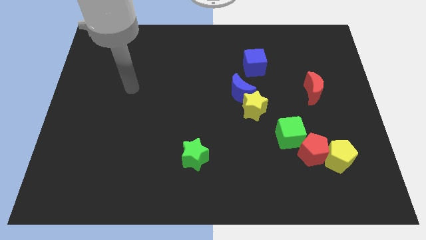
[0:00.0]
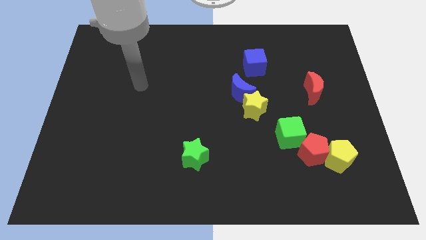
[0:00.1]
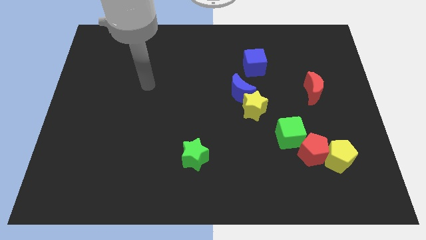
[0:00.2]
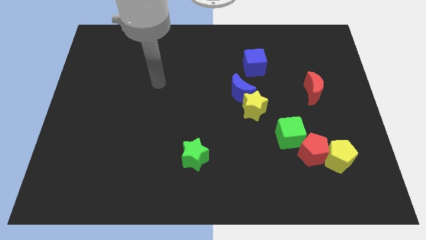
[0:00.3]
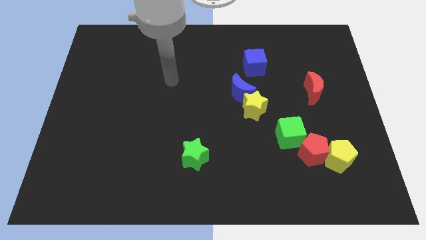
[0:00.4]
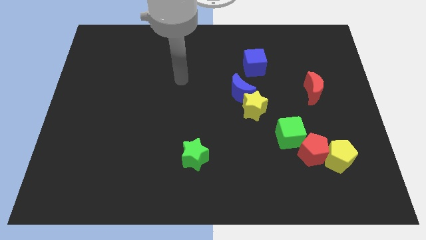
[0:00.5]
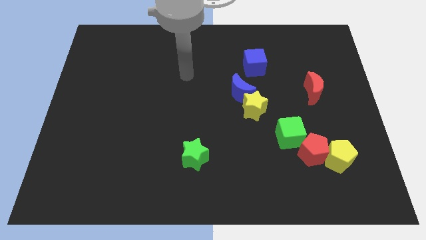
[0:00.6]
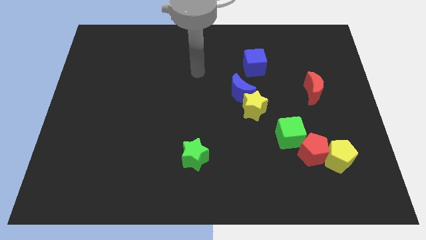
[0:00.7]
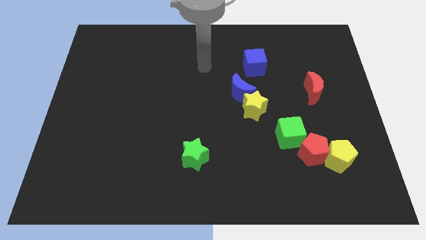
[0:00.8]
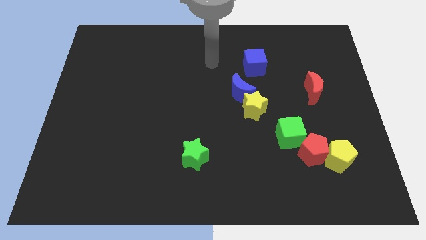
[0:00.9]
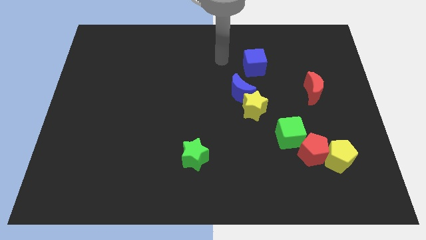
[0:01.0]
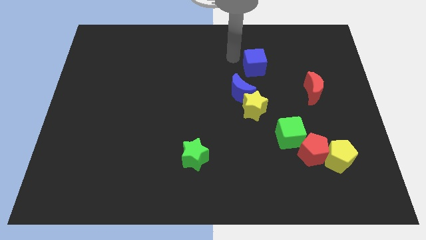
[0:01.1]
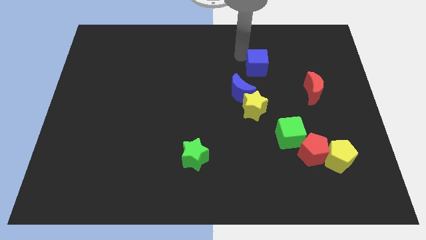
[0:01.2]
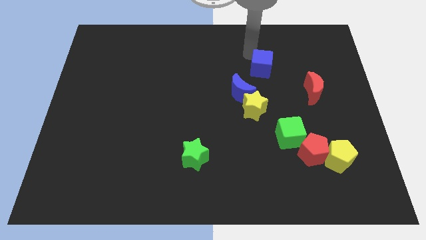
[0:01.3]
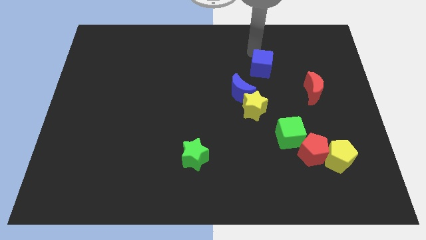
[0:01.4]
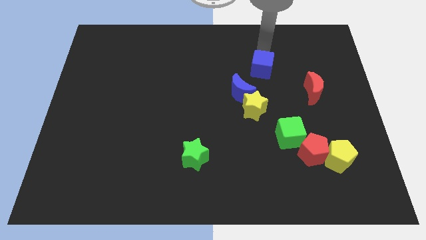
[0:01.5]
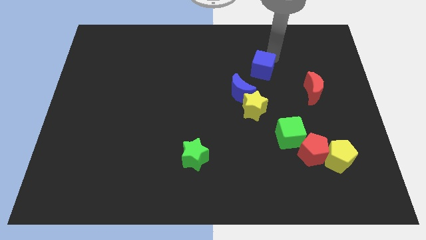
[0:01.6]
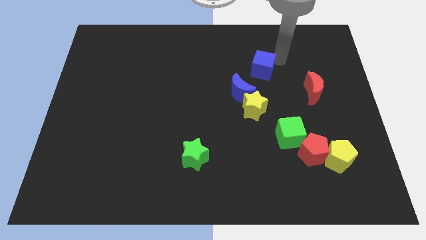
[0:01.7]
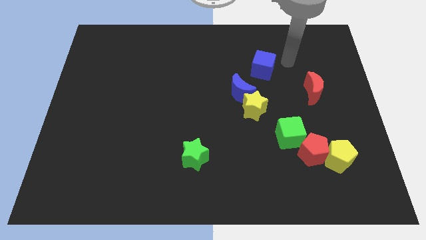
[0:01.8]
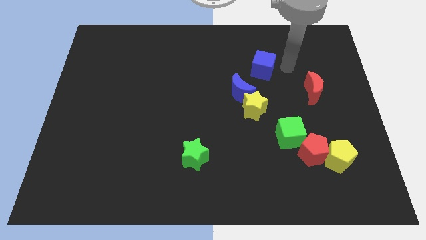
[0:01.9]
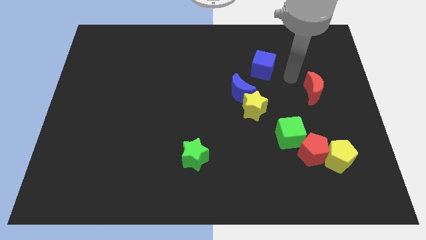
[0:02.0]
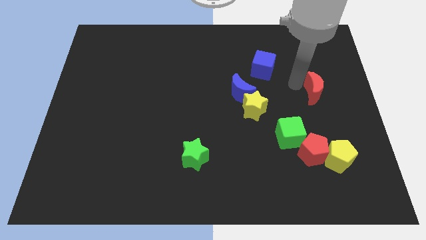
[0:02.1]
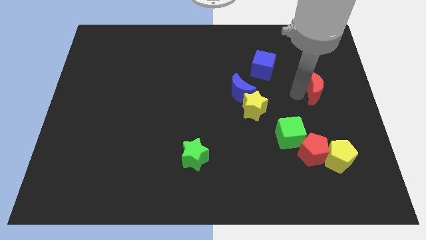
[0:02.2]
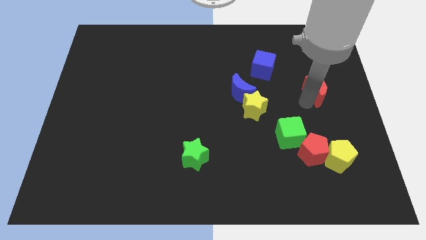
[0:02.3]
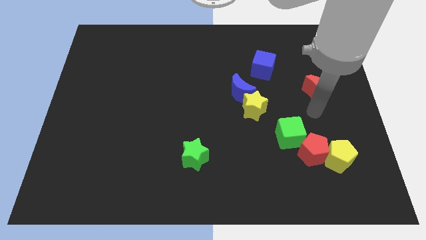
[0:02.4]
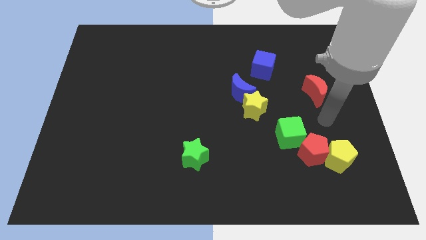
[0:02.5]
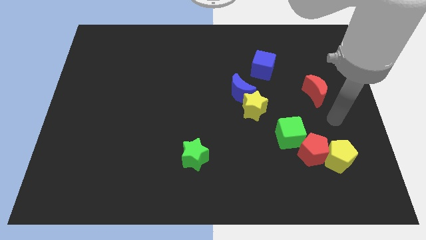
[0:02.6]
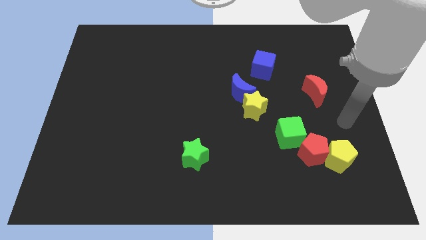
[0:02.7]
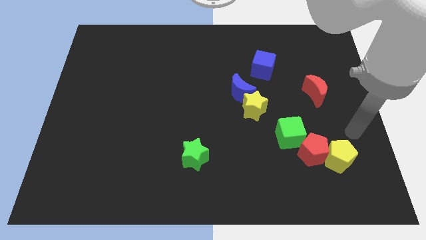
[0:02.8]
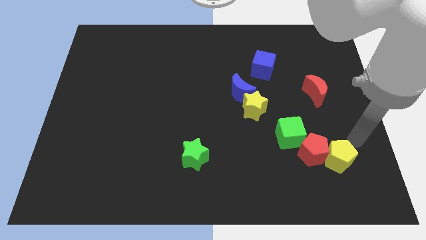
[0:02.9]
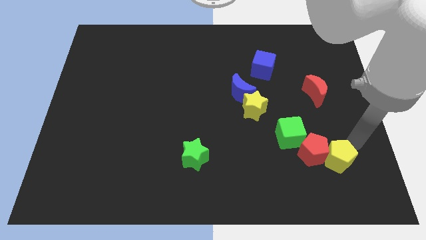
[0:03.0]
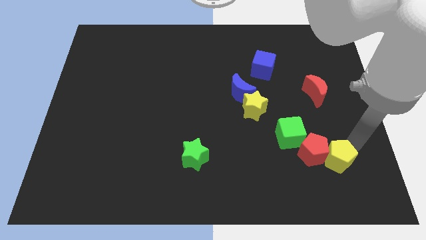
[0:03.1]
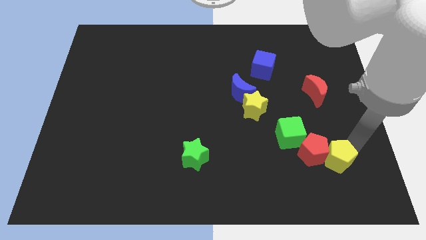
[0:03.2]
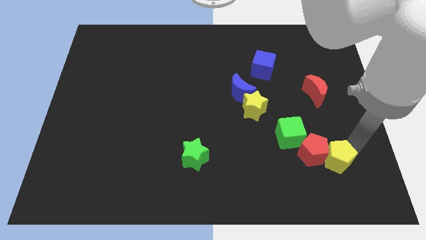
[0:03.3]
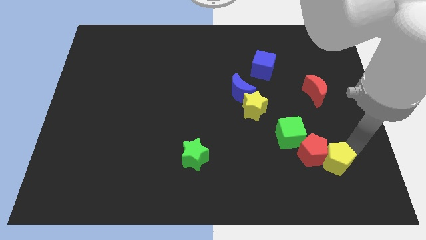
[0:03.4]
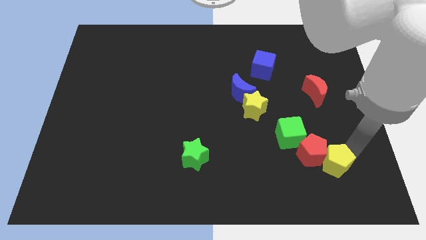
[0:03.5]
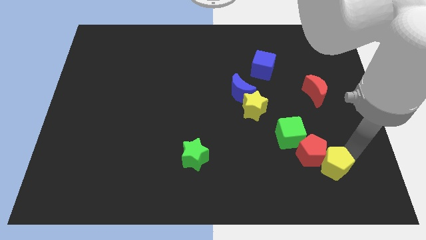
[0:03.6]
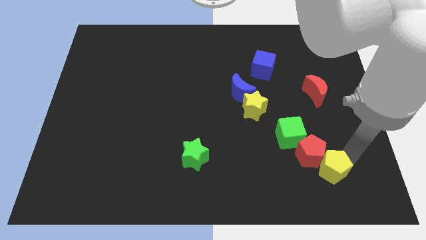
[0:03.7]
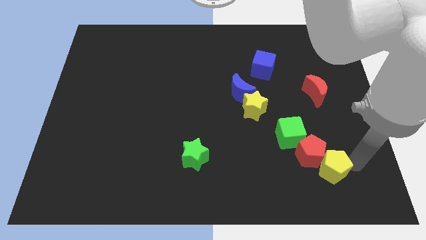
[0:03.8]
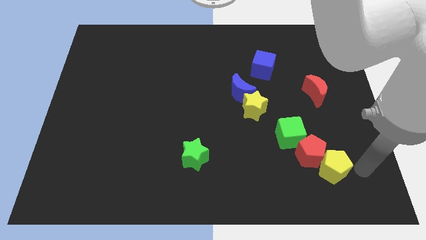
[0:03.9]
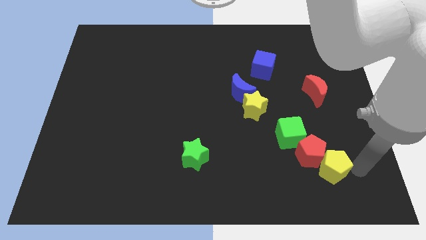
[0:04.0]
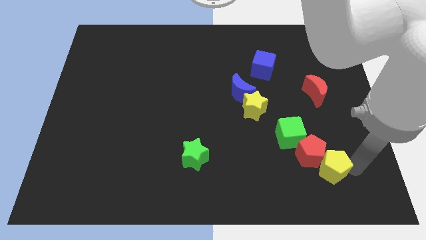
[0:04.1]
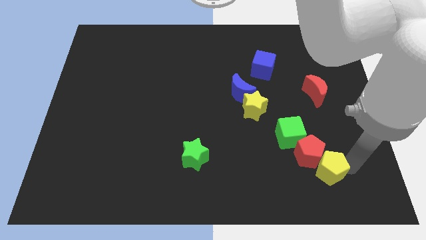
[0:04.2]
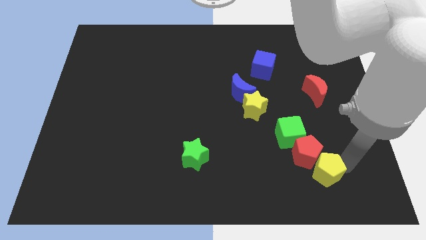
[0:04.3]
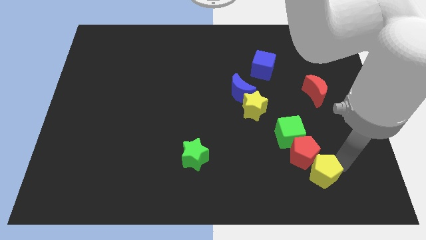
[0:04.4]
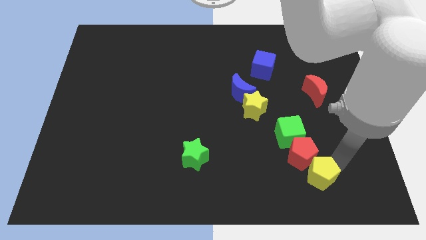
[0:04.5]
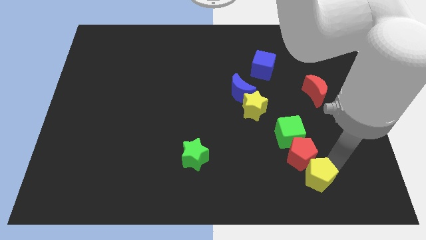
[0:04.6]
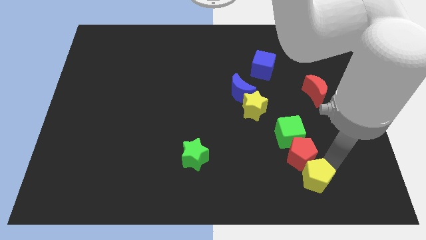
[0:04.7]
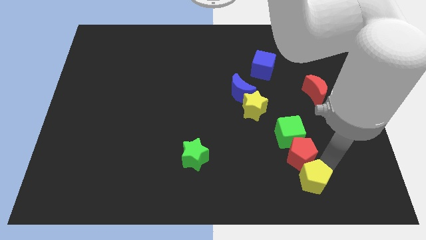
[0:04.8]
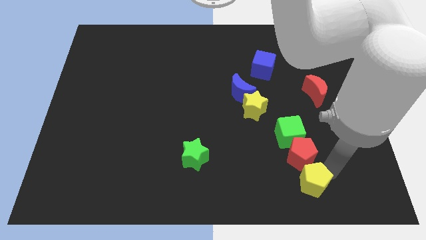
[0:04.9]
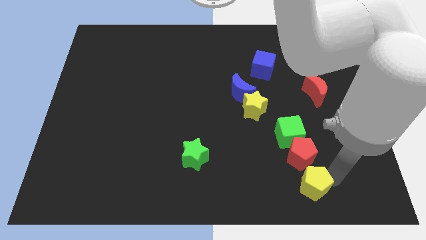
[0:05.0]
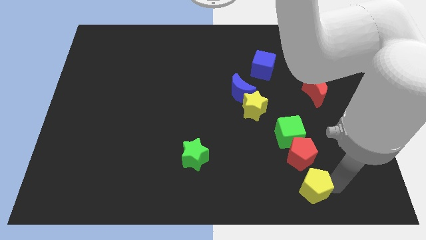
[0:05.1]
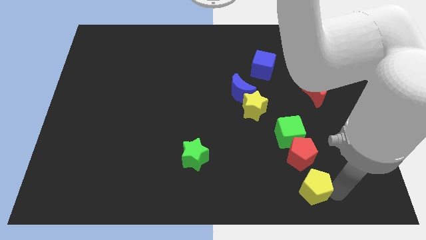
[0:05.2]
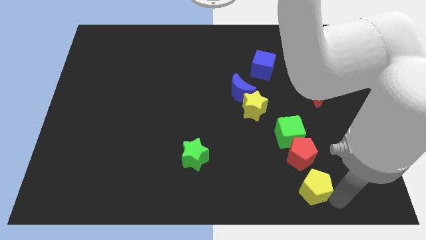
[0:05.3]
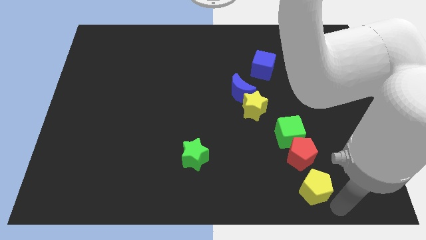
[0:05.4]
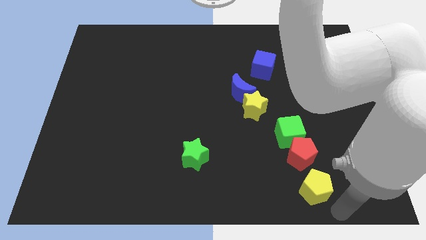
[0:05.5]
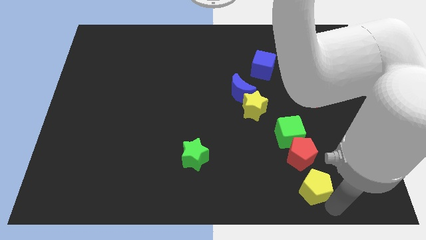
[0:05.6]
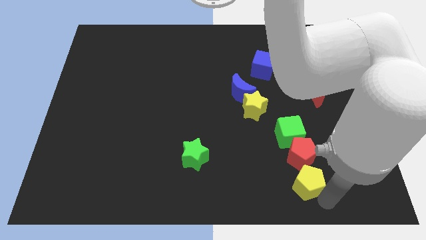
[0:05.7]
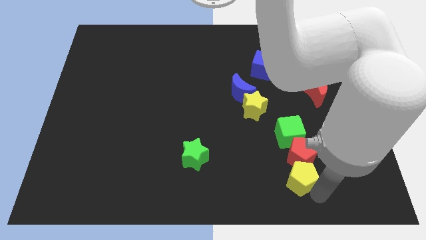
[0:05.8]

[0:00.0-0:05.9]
push the yellow pentagon to the left somewhat

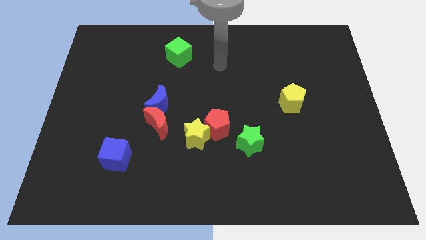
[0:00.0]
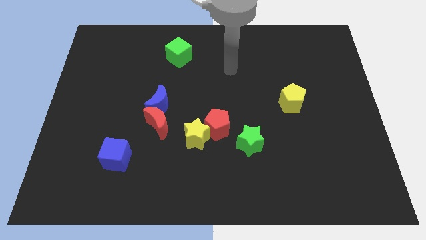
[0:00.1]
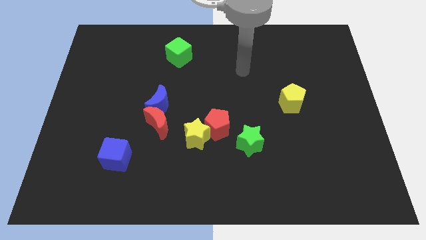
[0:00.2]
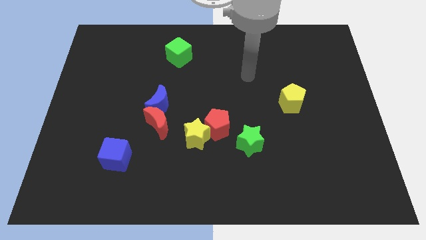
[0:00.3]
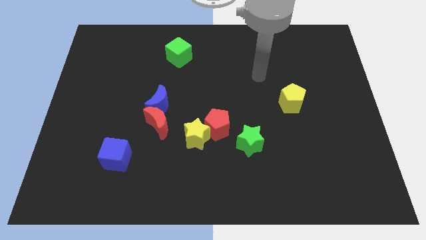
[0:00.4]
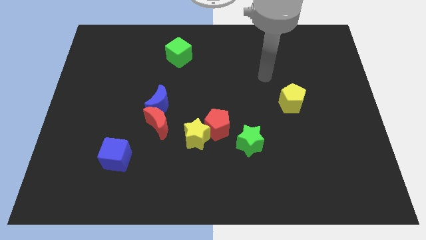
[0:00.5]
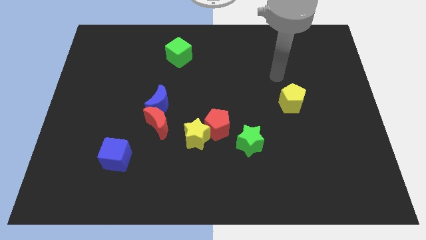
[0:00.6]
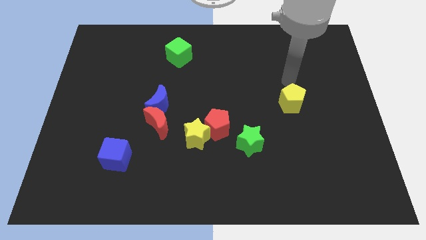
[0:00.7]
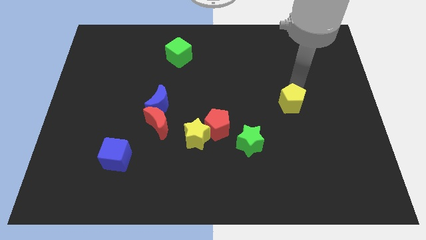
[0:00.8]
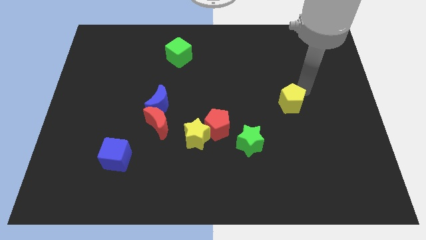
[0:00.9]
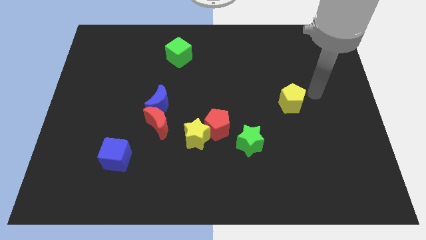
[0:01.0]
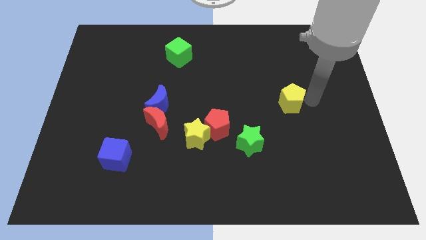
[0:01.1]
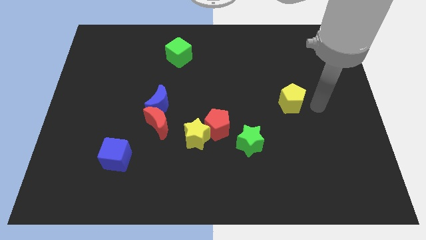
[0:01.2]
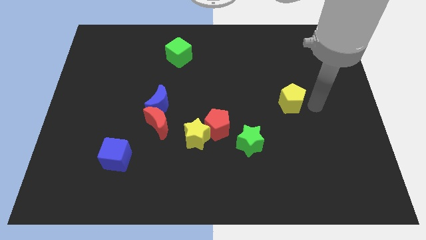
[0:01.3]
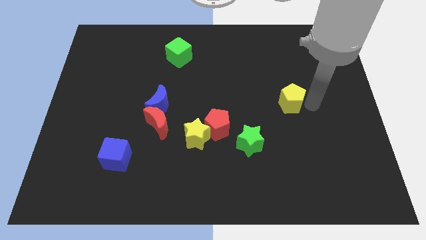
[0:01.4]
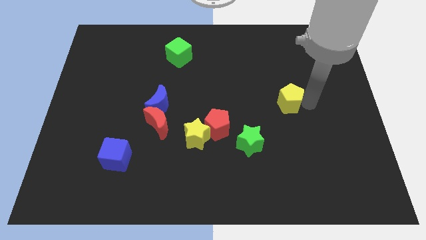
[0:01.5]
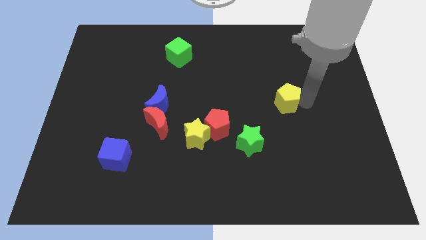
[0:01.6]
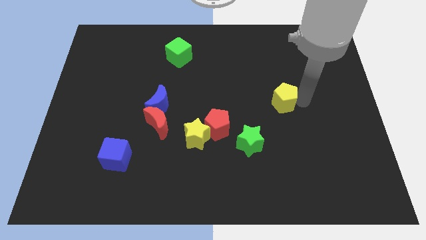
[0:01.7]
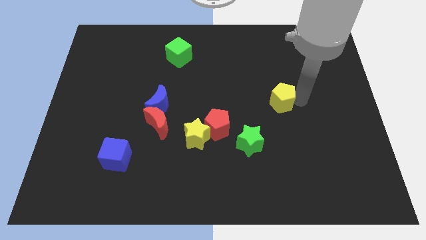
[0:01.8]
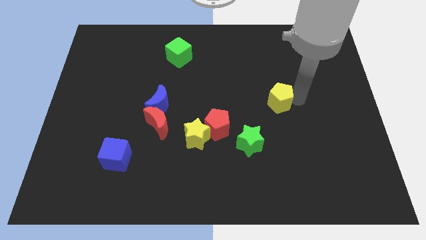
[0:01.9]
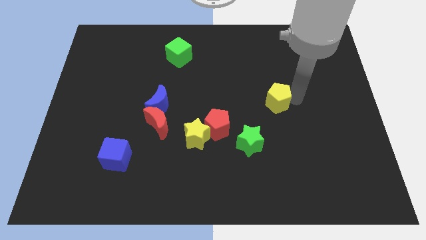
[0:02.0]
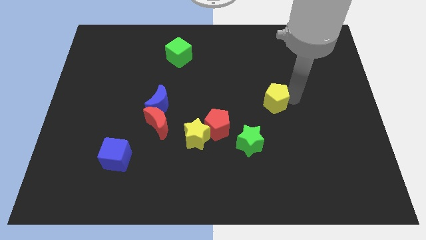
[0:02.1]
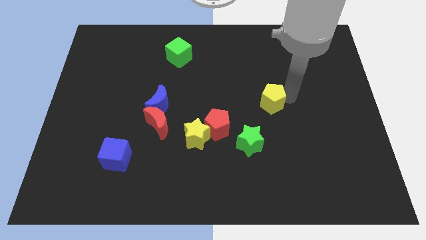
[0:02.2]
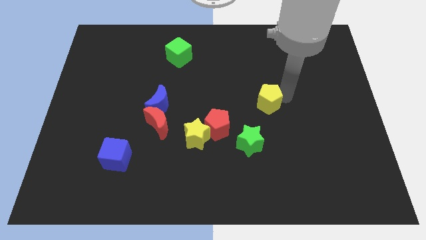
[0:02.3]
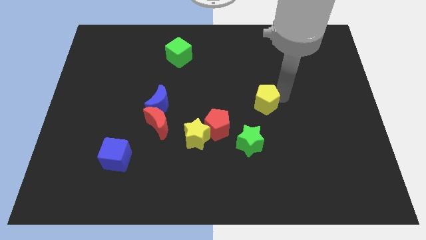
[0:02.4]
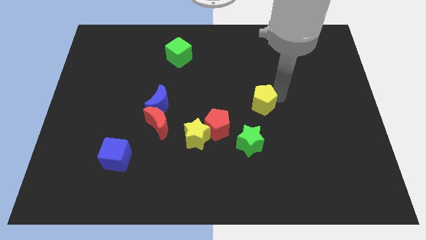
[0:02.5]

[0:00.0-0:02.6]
slightly move the yellow pentagon to the left
